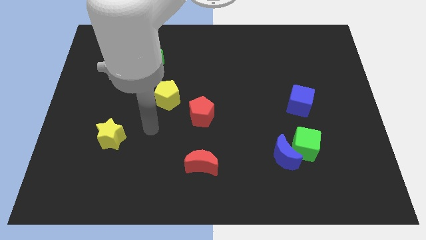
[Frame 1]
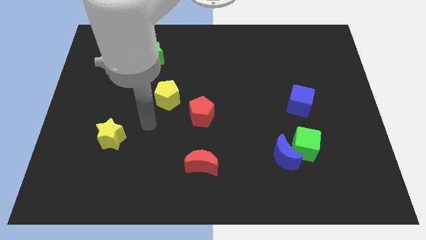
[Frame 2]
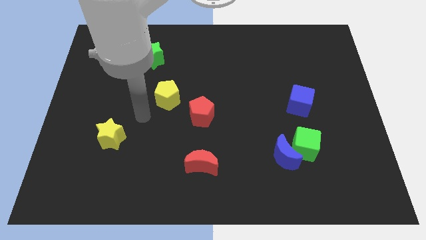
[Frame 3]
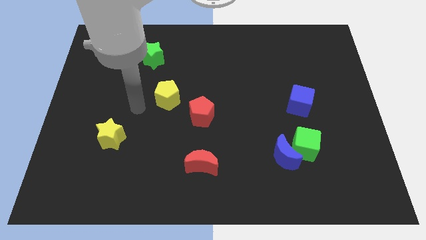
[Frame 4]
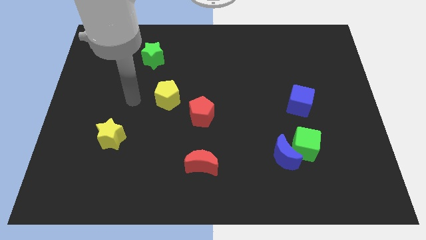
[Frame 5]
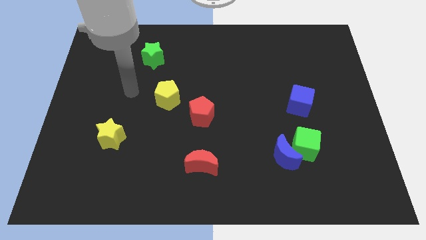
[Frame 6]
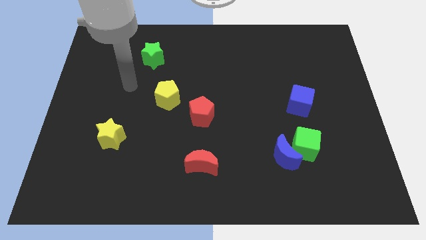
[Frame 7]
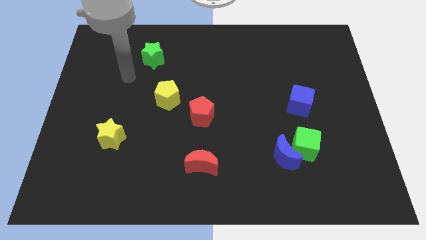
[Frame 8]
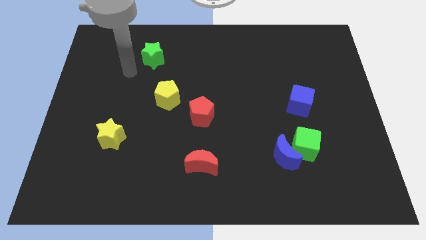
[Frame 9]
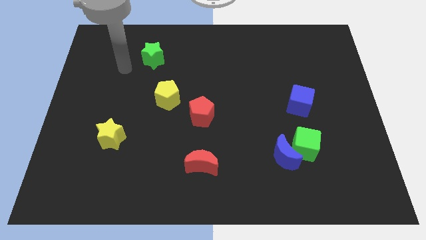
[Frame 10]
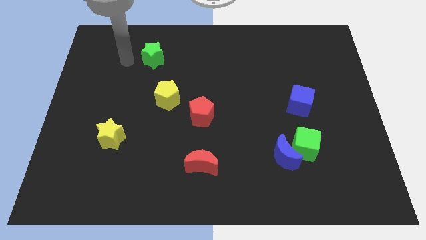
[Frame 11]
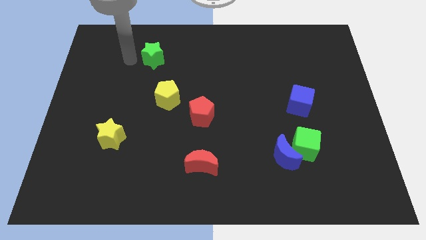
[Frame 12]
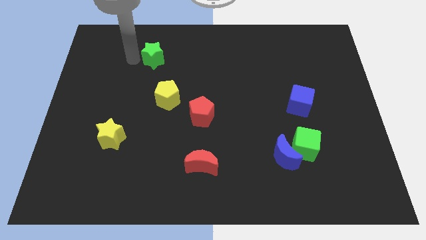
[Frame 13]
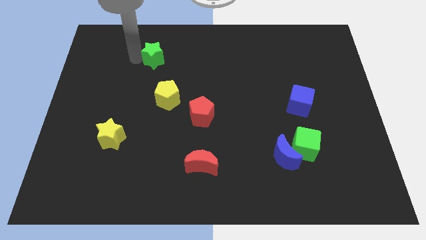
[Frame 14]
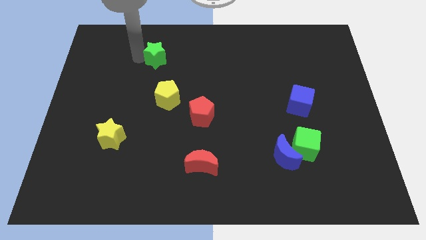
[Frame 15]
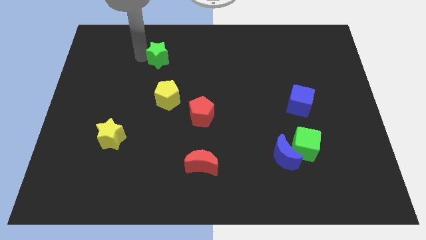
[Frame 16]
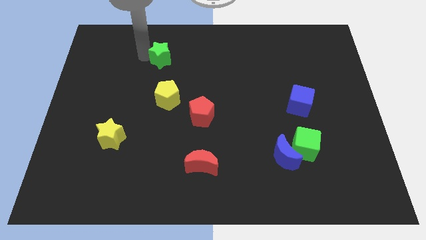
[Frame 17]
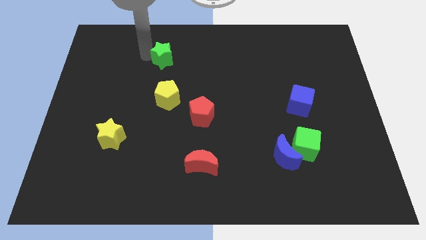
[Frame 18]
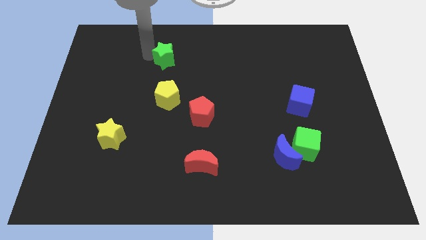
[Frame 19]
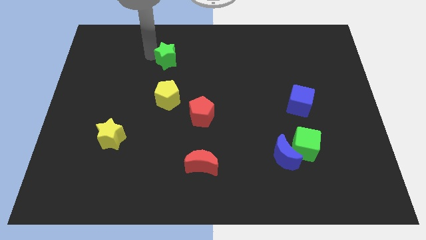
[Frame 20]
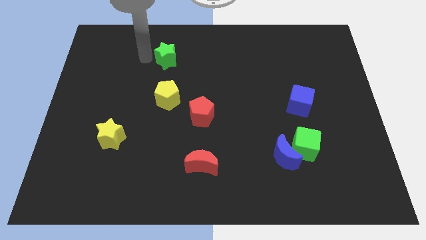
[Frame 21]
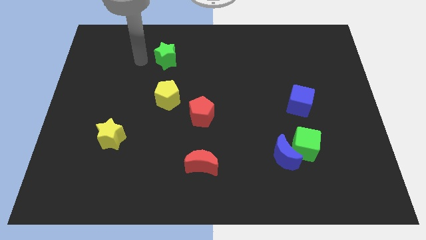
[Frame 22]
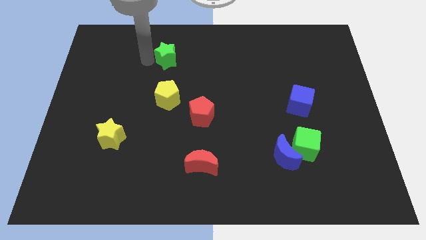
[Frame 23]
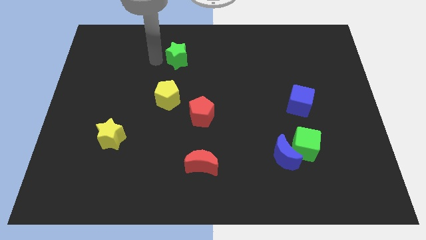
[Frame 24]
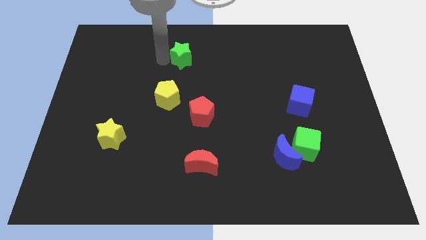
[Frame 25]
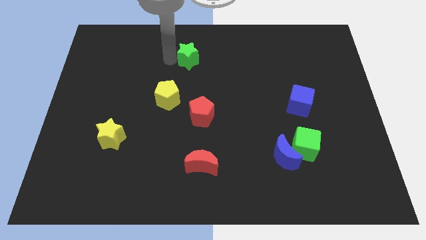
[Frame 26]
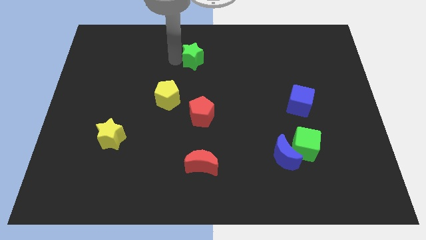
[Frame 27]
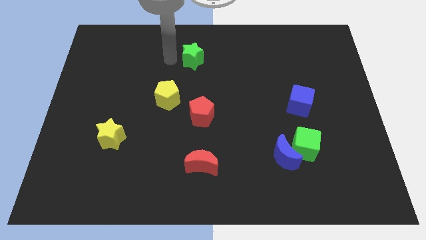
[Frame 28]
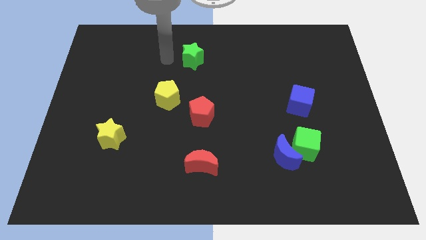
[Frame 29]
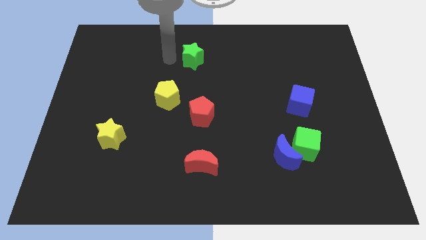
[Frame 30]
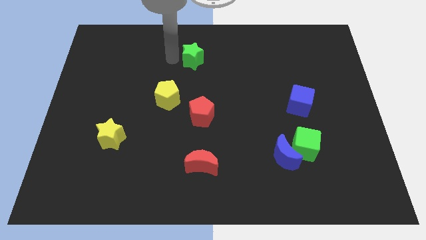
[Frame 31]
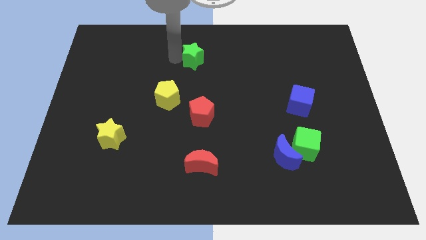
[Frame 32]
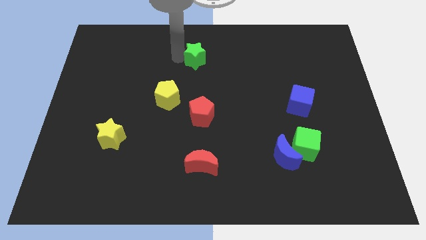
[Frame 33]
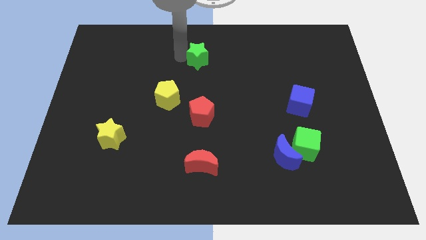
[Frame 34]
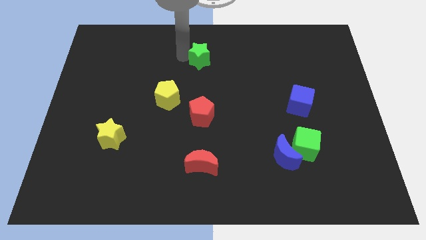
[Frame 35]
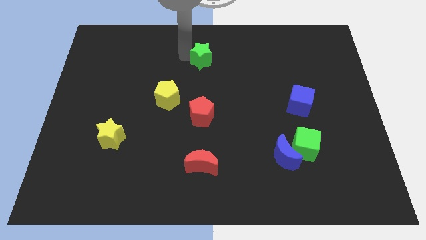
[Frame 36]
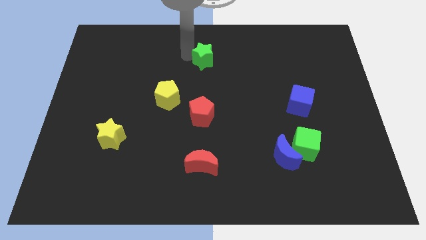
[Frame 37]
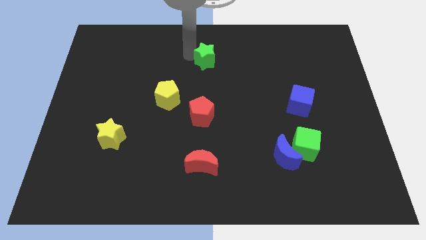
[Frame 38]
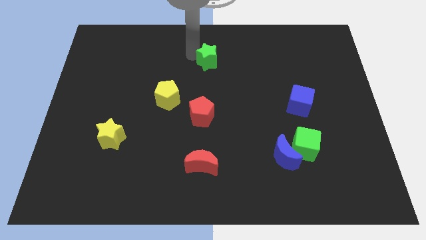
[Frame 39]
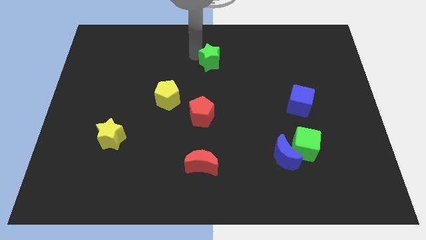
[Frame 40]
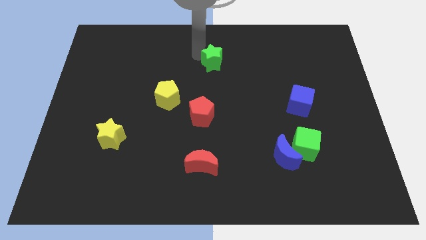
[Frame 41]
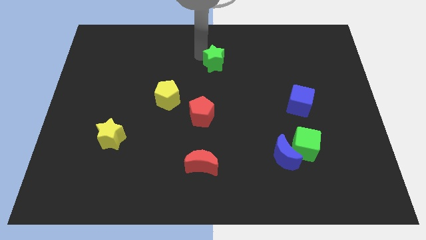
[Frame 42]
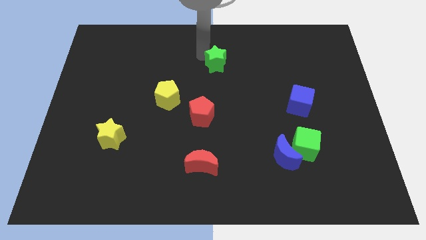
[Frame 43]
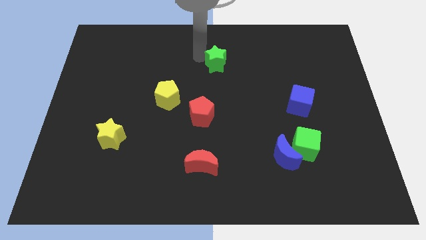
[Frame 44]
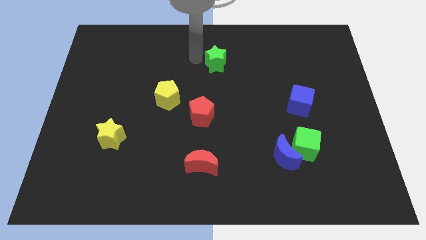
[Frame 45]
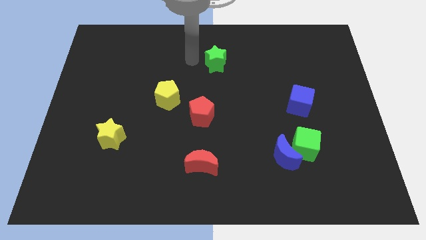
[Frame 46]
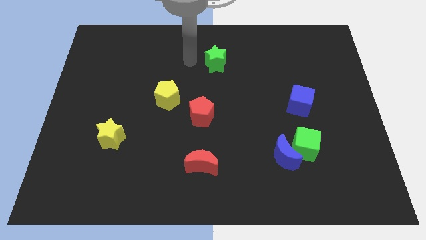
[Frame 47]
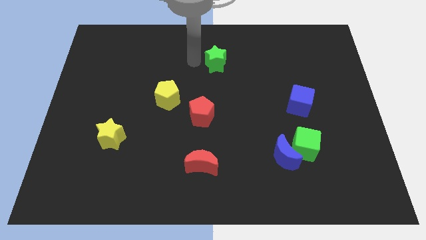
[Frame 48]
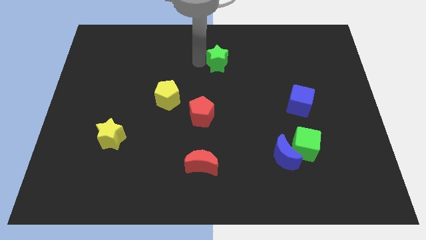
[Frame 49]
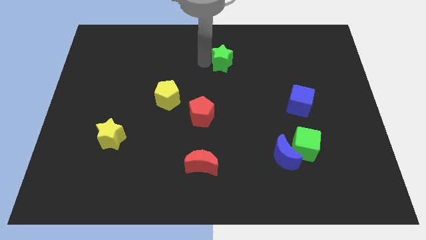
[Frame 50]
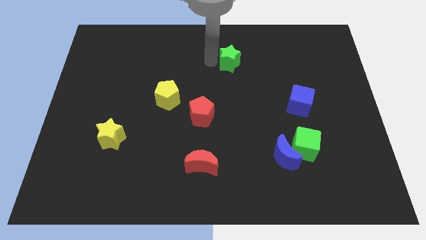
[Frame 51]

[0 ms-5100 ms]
slide the green star right

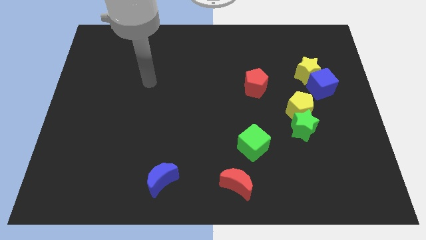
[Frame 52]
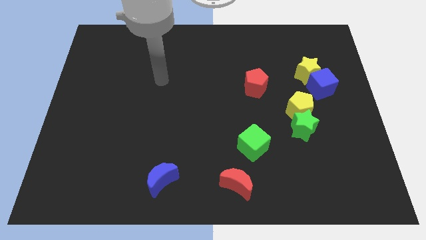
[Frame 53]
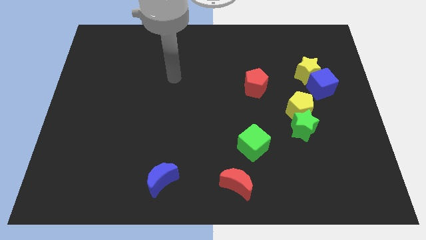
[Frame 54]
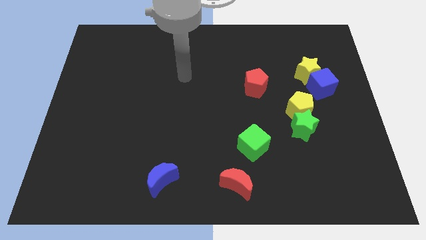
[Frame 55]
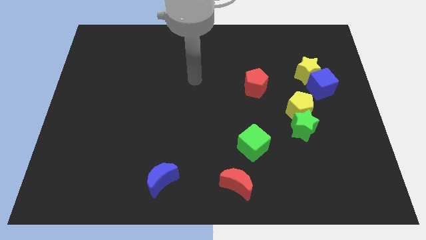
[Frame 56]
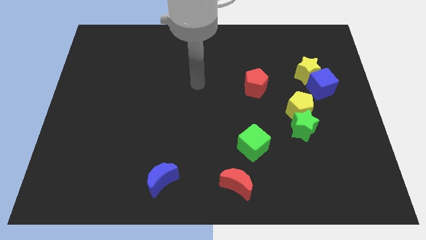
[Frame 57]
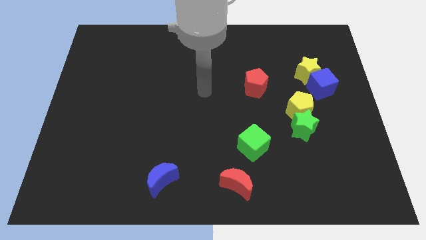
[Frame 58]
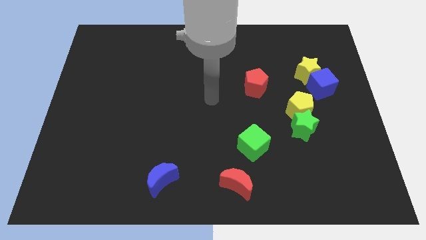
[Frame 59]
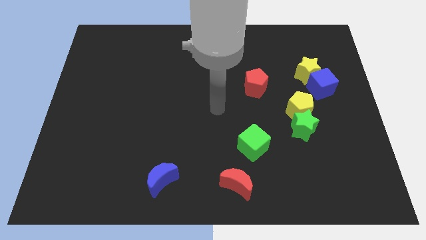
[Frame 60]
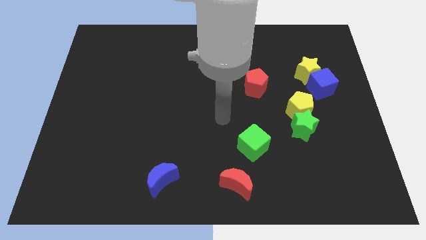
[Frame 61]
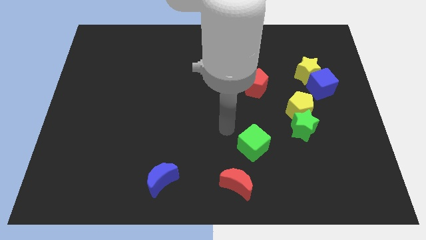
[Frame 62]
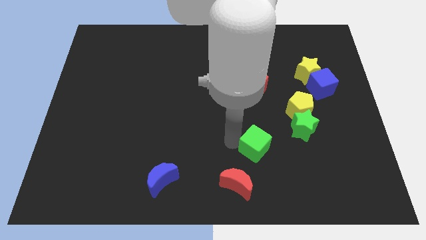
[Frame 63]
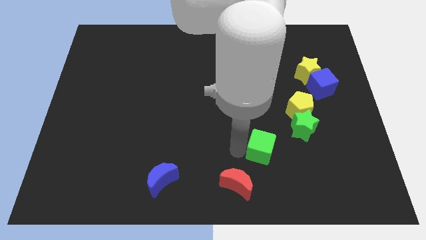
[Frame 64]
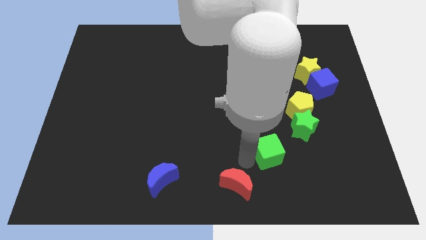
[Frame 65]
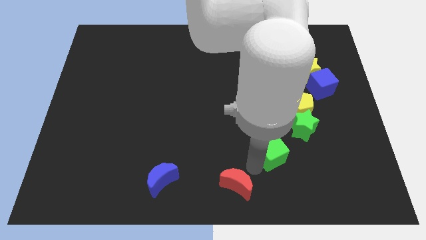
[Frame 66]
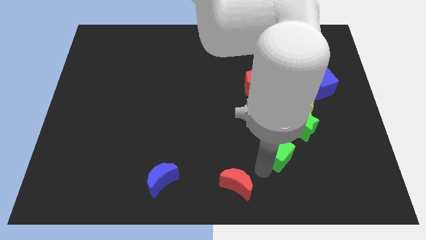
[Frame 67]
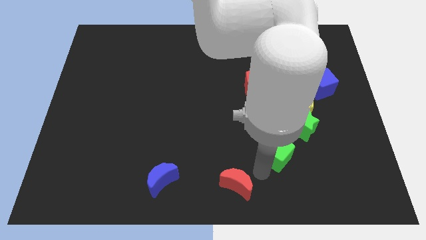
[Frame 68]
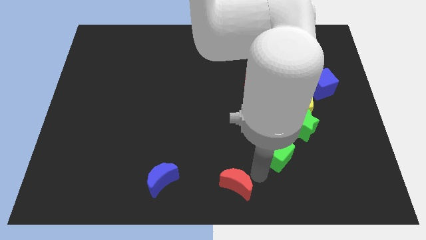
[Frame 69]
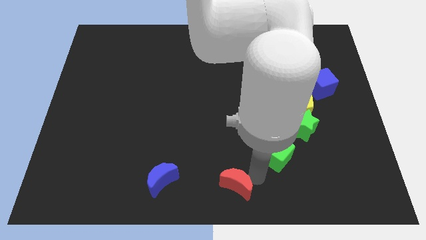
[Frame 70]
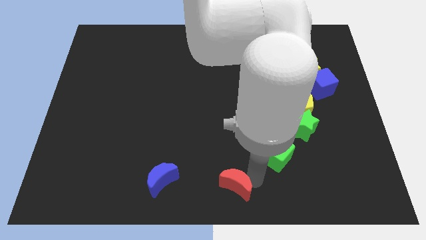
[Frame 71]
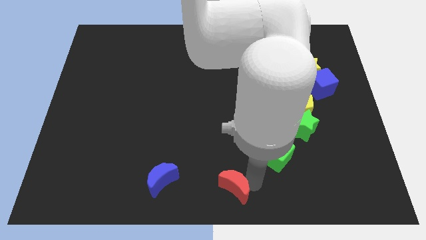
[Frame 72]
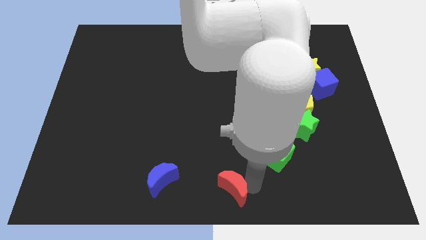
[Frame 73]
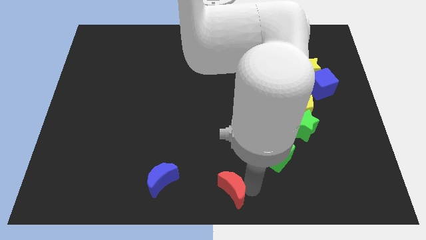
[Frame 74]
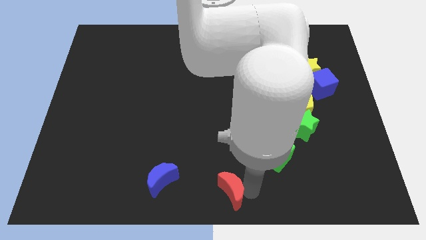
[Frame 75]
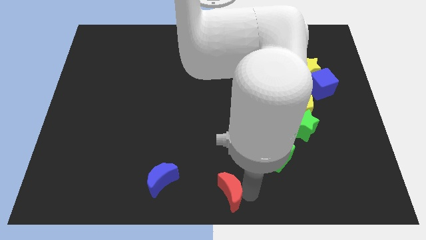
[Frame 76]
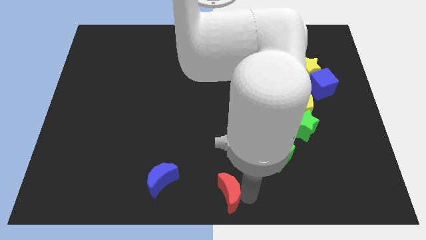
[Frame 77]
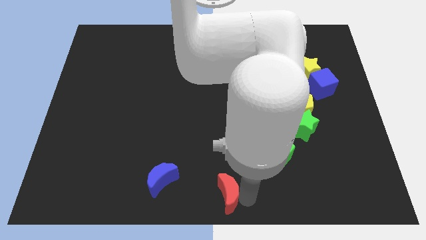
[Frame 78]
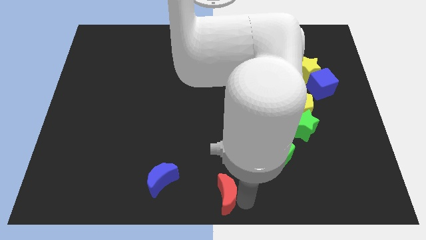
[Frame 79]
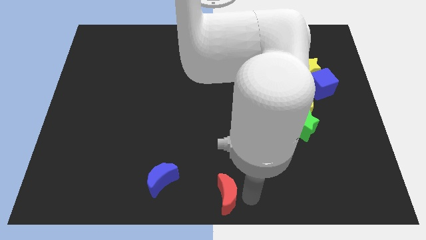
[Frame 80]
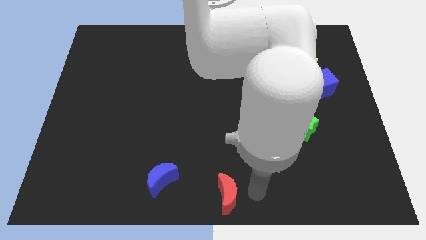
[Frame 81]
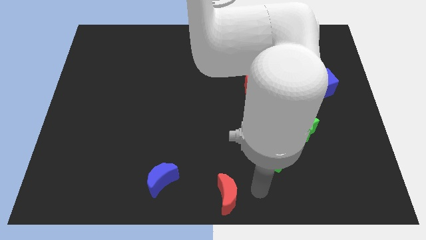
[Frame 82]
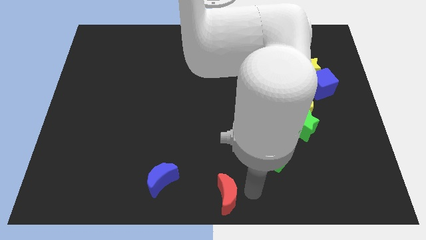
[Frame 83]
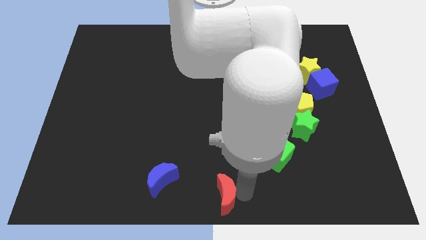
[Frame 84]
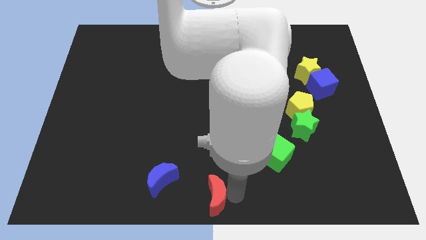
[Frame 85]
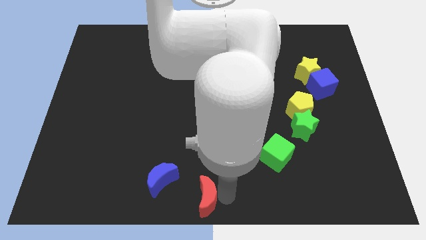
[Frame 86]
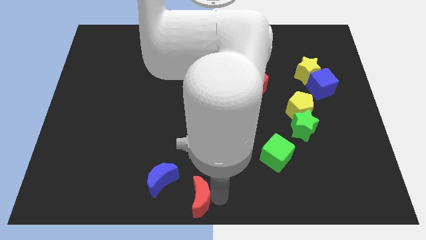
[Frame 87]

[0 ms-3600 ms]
push the red moon somewhat left
